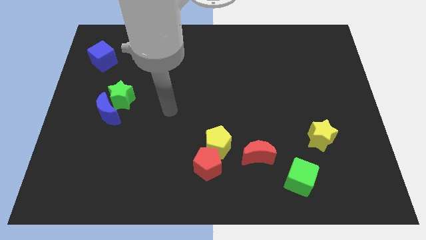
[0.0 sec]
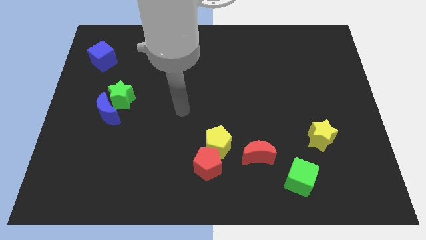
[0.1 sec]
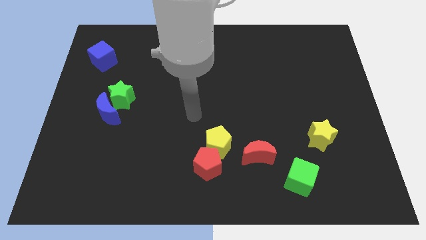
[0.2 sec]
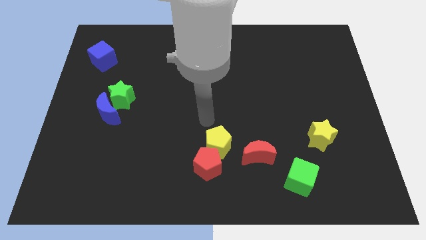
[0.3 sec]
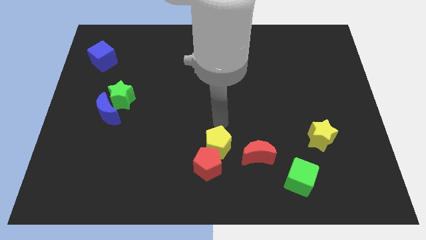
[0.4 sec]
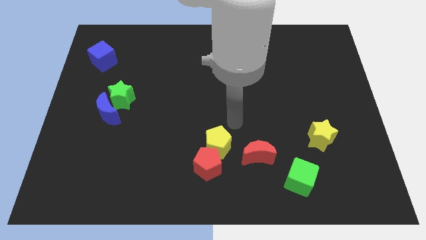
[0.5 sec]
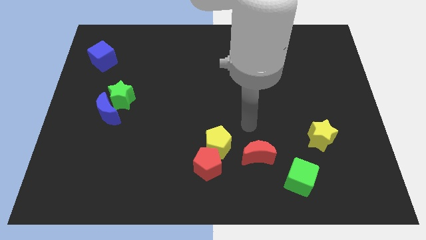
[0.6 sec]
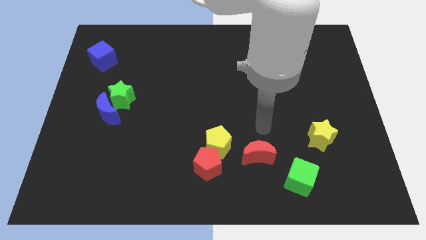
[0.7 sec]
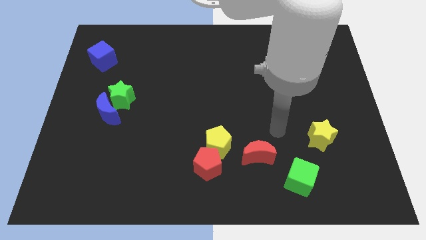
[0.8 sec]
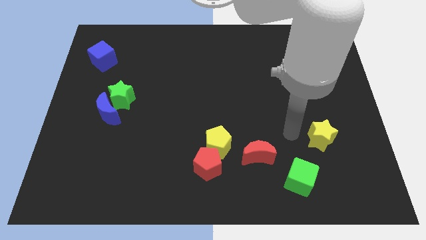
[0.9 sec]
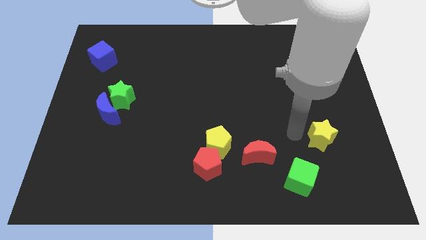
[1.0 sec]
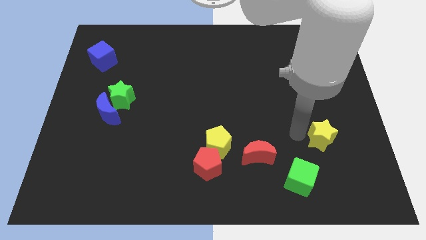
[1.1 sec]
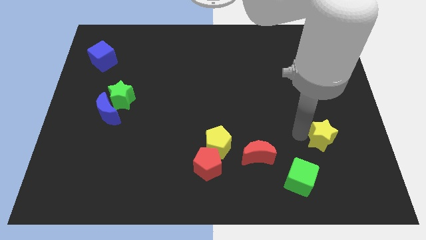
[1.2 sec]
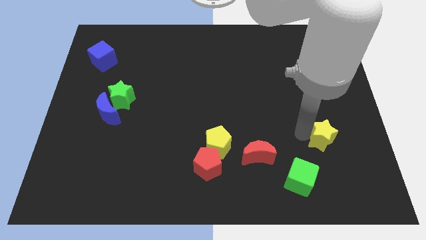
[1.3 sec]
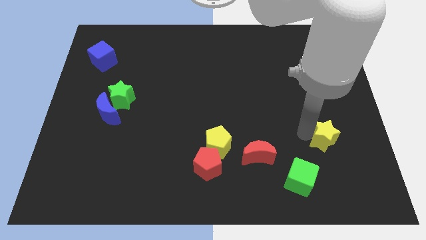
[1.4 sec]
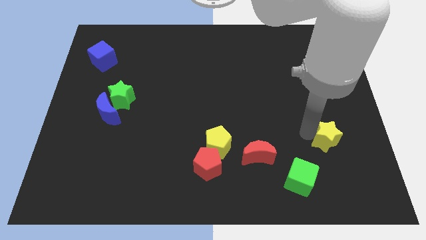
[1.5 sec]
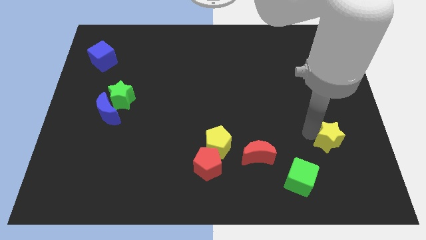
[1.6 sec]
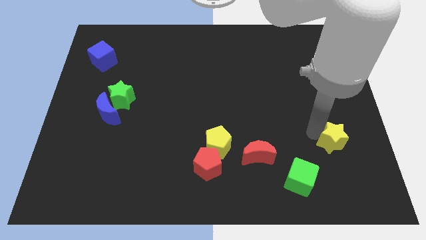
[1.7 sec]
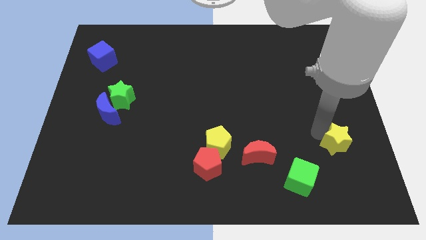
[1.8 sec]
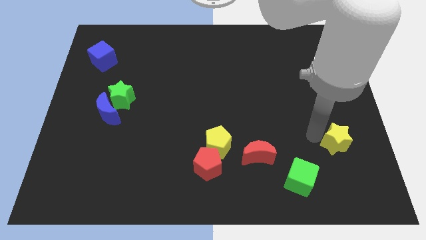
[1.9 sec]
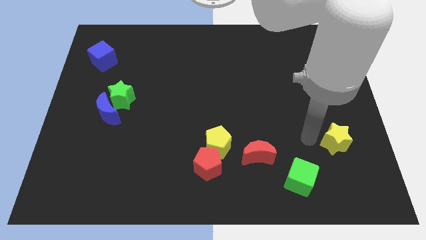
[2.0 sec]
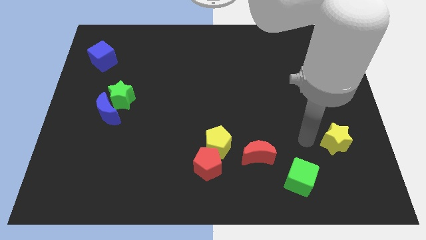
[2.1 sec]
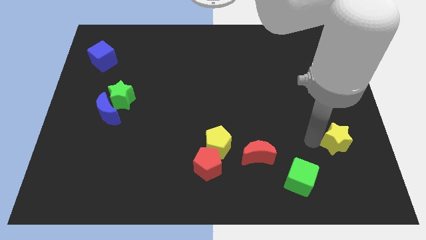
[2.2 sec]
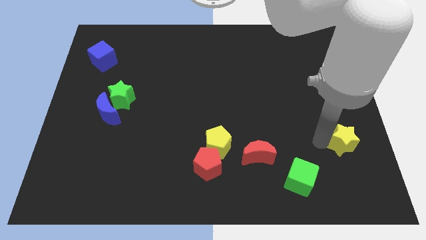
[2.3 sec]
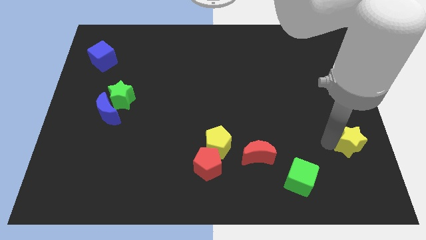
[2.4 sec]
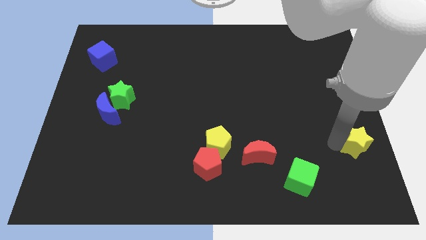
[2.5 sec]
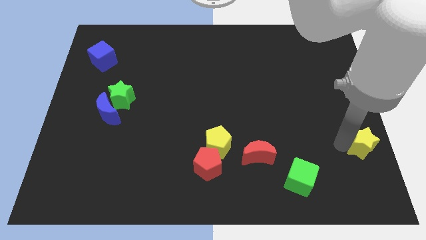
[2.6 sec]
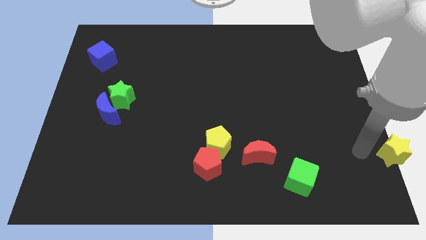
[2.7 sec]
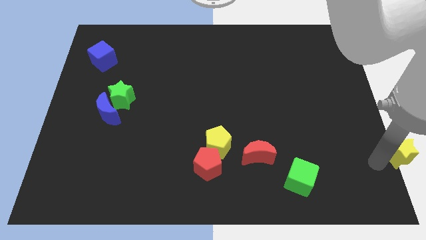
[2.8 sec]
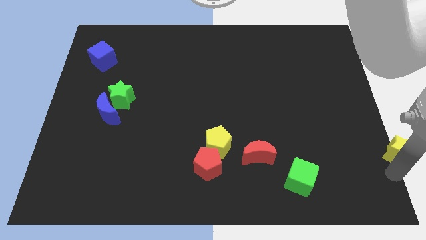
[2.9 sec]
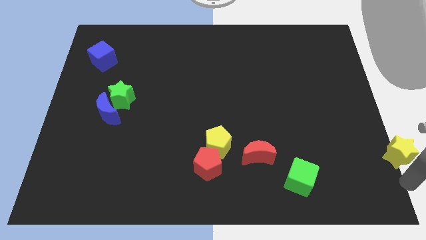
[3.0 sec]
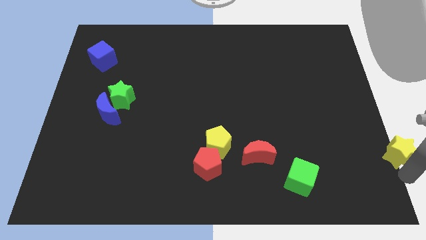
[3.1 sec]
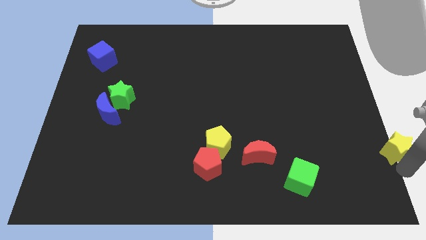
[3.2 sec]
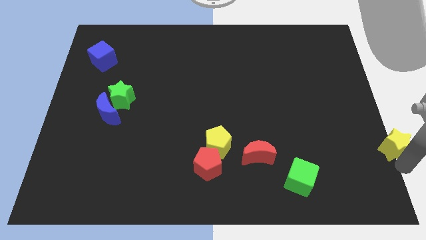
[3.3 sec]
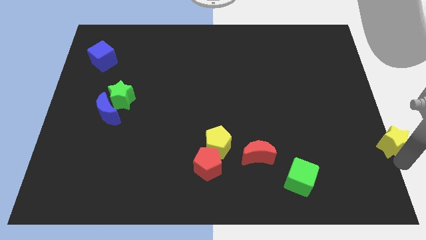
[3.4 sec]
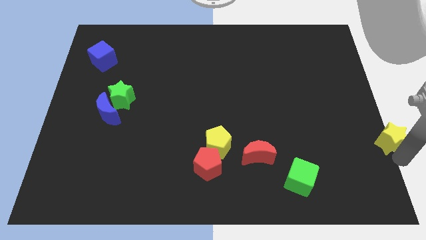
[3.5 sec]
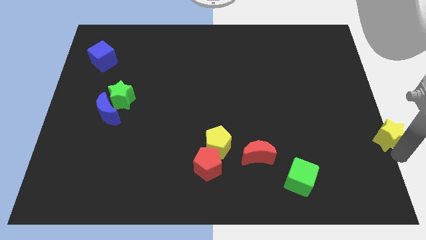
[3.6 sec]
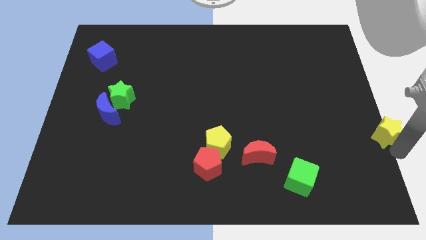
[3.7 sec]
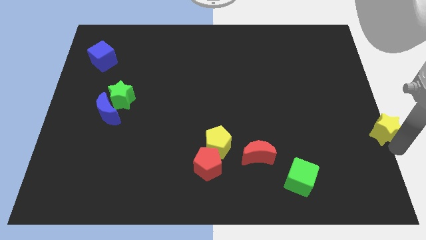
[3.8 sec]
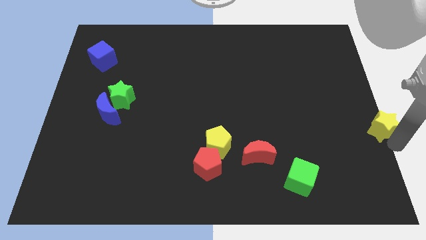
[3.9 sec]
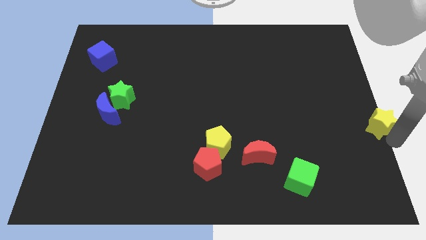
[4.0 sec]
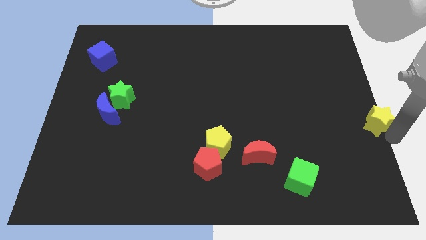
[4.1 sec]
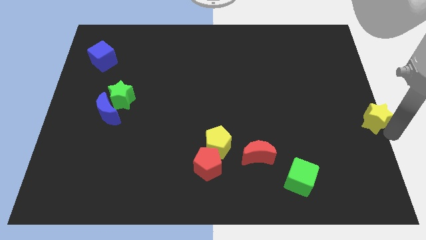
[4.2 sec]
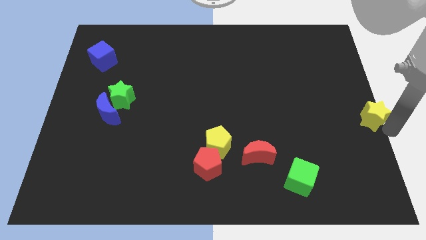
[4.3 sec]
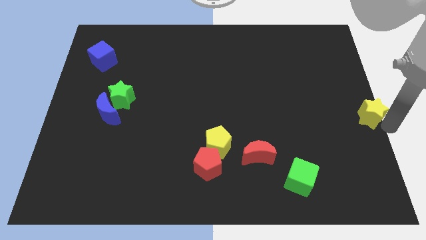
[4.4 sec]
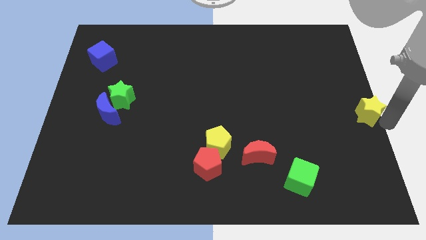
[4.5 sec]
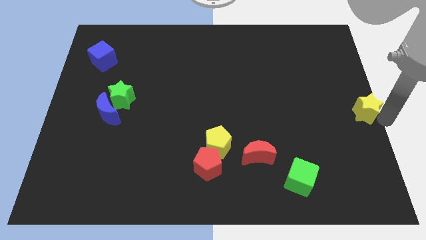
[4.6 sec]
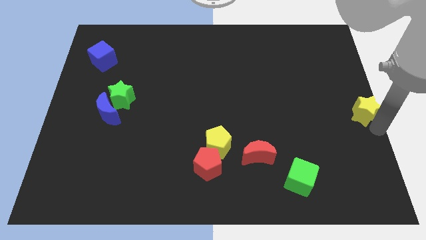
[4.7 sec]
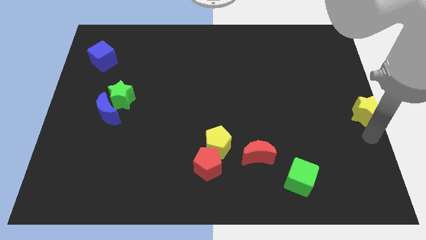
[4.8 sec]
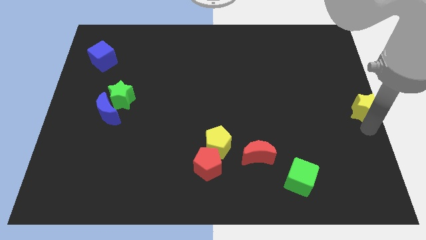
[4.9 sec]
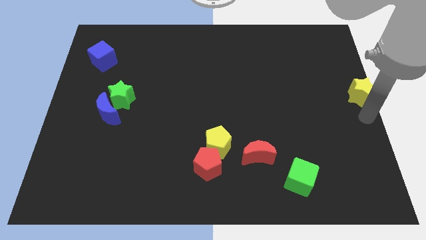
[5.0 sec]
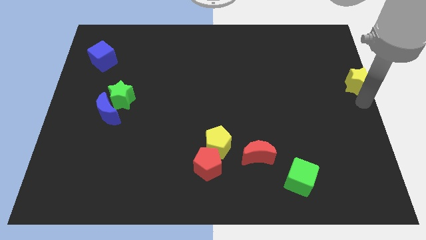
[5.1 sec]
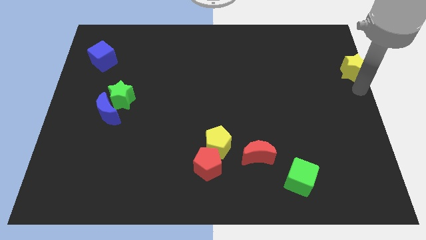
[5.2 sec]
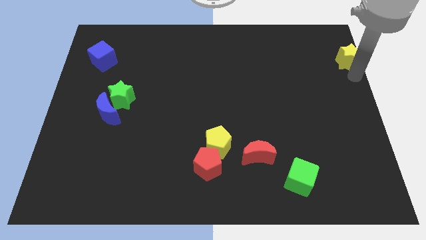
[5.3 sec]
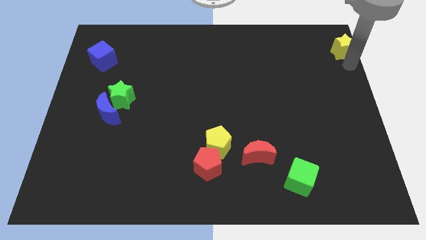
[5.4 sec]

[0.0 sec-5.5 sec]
slide the yellow star to the upper right corner

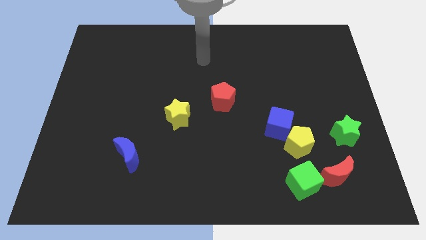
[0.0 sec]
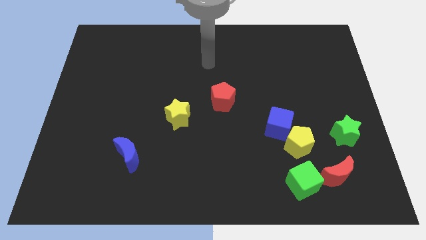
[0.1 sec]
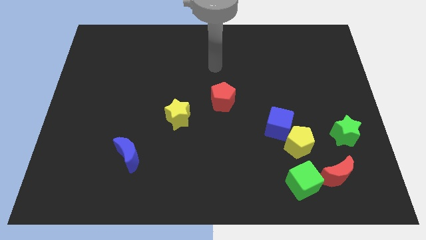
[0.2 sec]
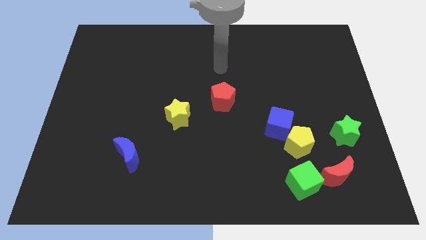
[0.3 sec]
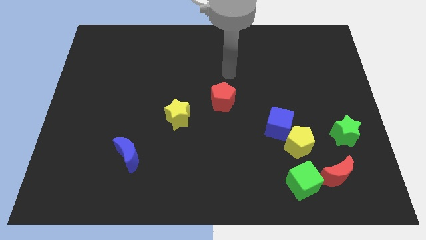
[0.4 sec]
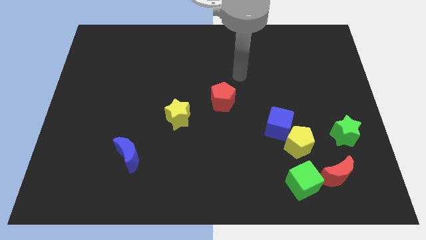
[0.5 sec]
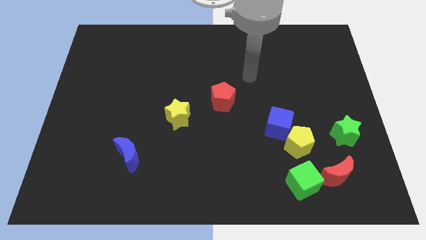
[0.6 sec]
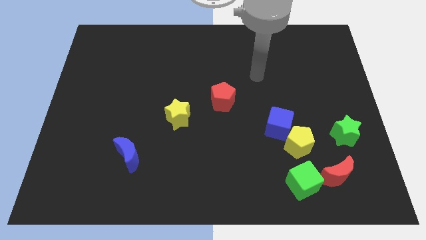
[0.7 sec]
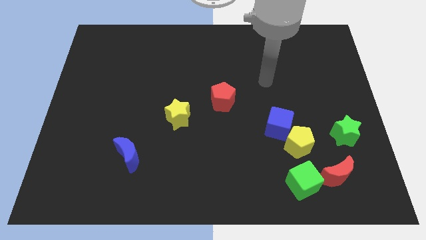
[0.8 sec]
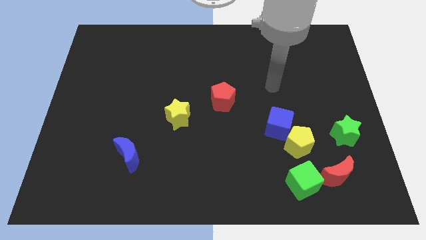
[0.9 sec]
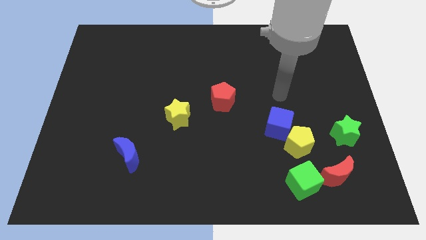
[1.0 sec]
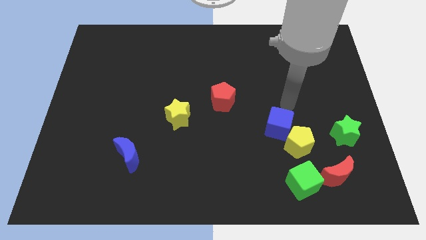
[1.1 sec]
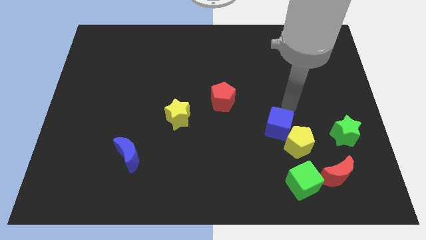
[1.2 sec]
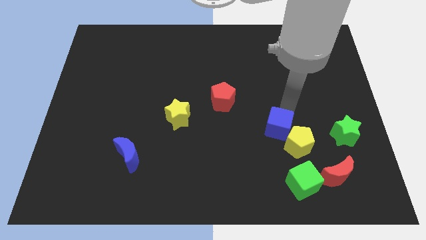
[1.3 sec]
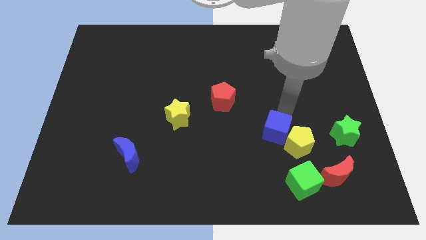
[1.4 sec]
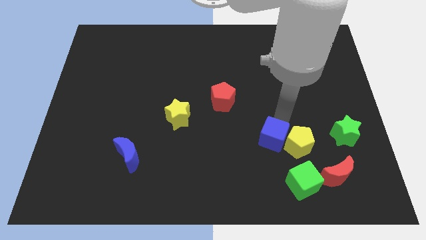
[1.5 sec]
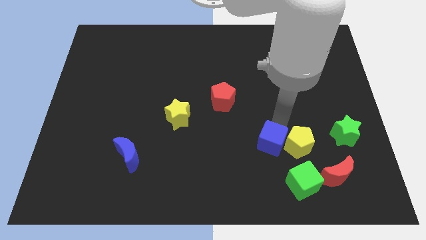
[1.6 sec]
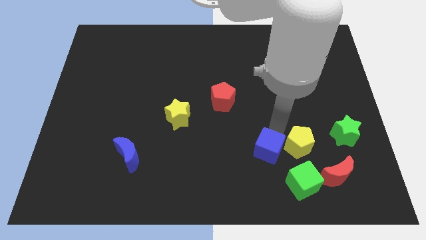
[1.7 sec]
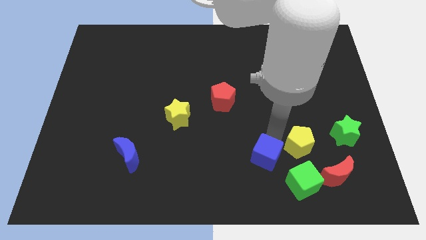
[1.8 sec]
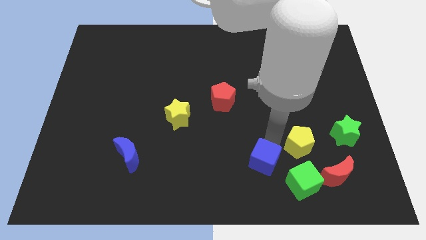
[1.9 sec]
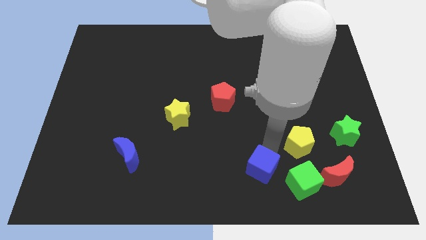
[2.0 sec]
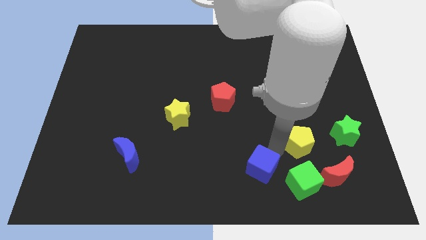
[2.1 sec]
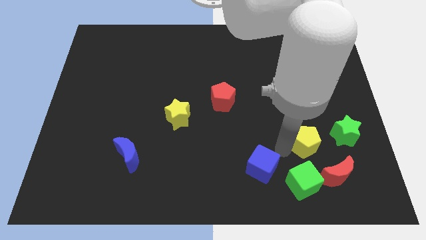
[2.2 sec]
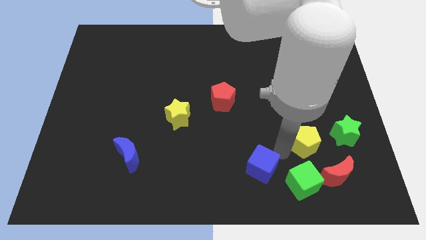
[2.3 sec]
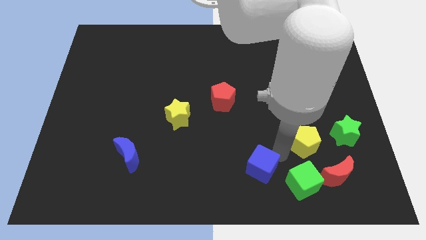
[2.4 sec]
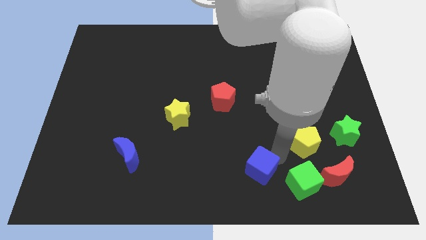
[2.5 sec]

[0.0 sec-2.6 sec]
push the blue cube to the bottom
